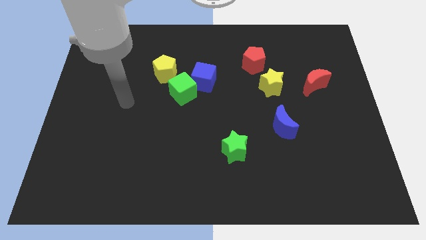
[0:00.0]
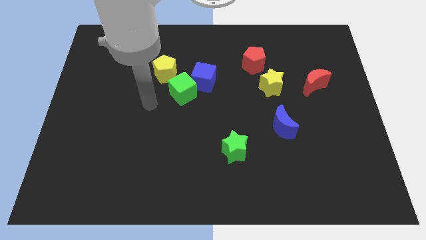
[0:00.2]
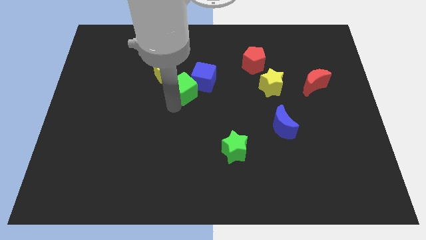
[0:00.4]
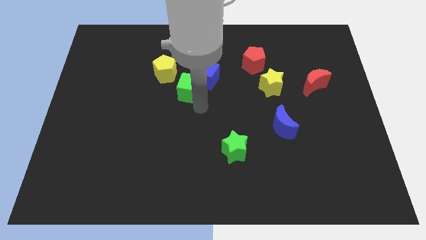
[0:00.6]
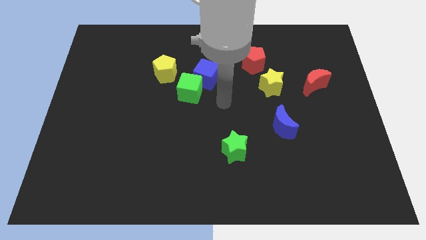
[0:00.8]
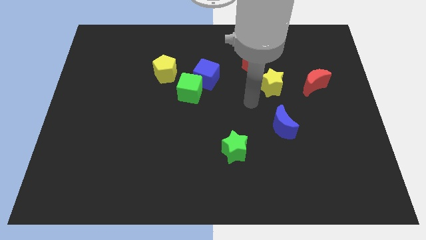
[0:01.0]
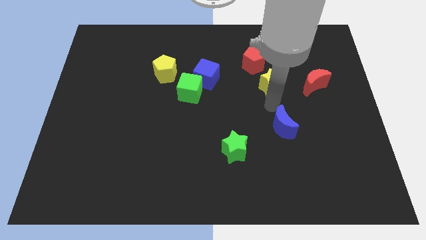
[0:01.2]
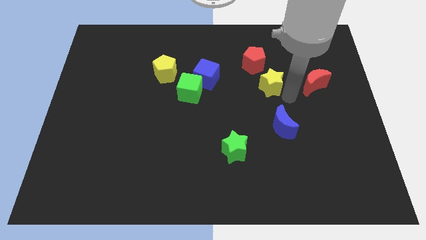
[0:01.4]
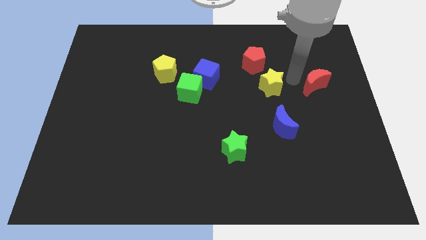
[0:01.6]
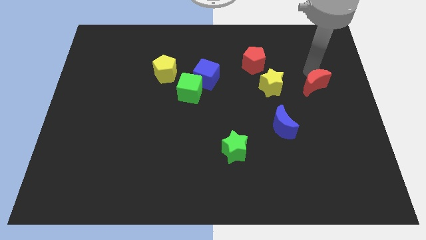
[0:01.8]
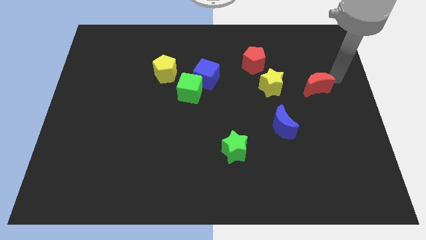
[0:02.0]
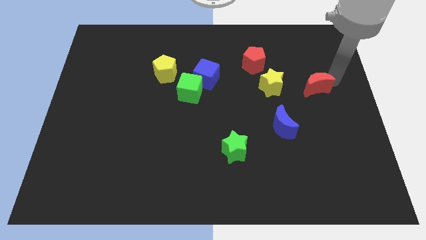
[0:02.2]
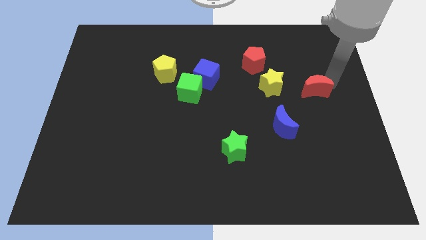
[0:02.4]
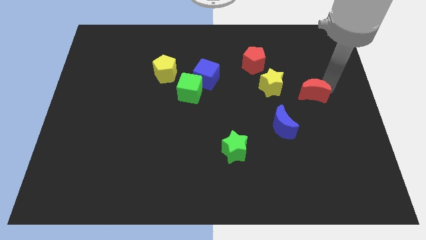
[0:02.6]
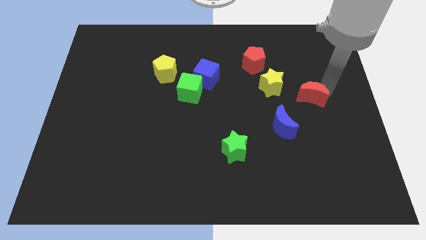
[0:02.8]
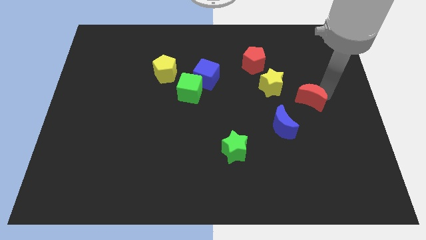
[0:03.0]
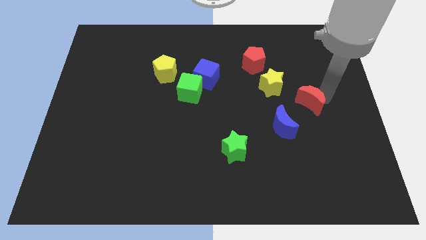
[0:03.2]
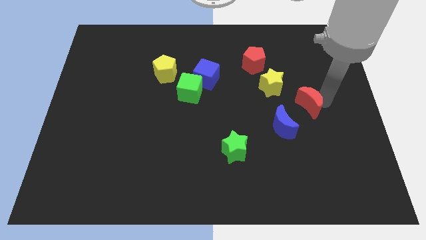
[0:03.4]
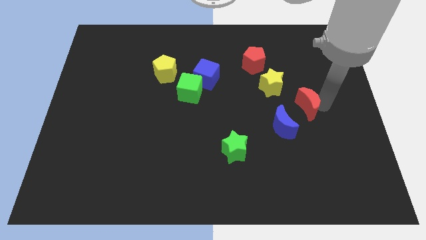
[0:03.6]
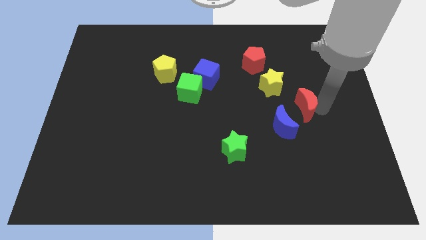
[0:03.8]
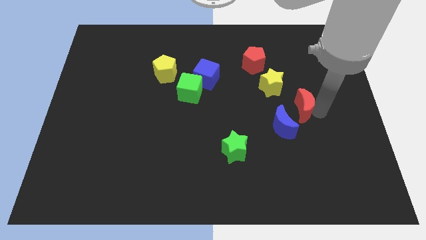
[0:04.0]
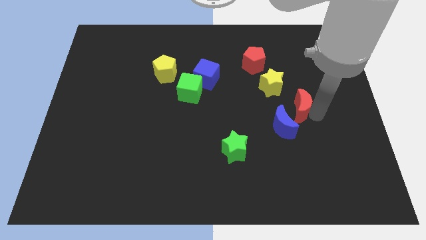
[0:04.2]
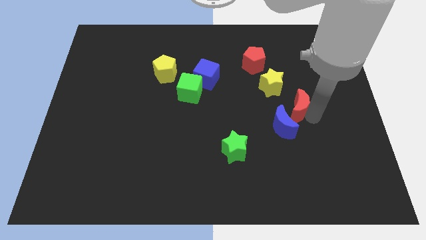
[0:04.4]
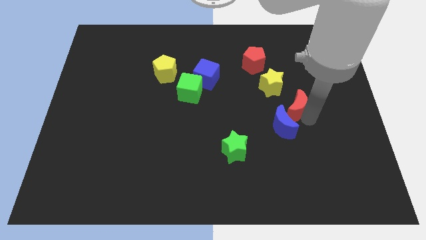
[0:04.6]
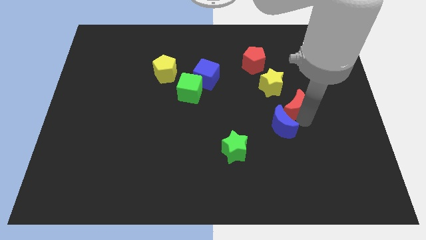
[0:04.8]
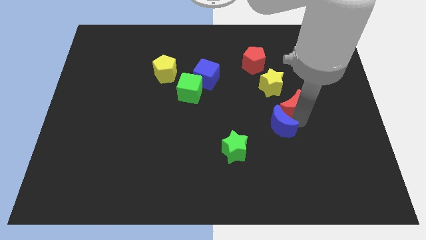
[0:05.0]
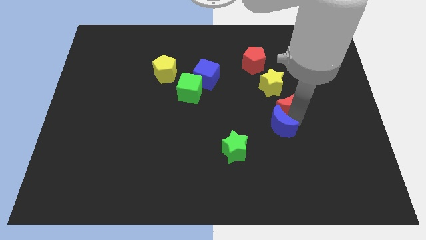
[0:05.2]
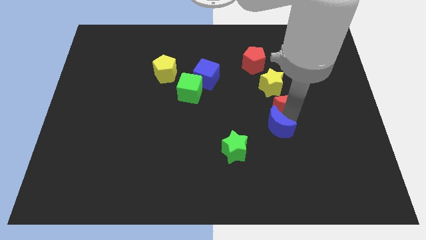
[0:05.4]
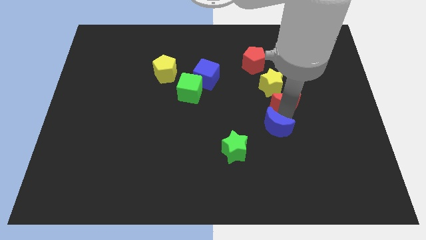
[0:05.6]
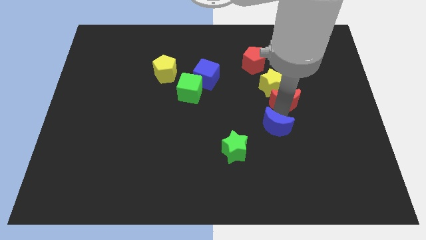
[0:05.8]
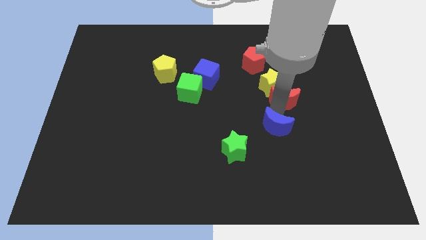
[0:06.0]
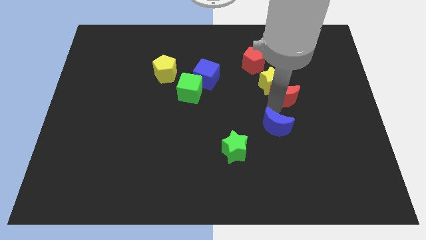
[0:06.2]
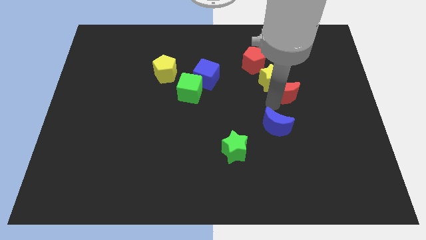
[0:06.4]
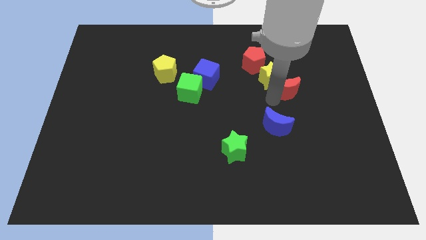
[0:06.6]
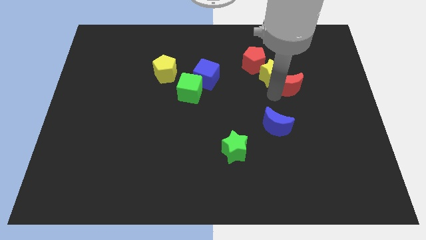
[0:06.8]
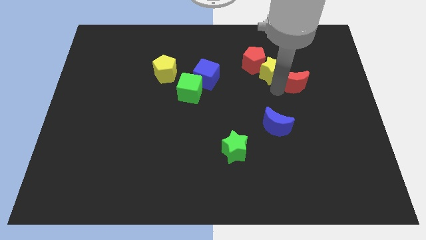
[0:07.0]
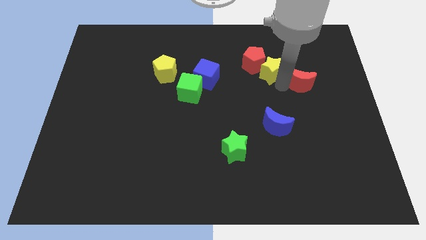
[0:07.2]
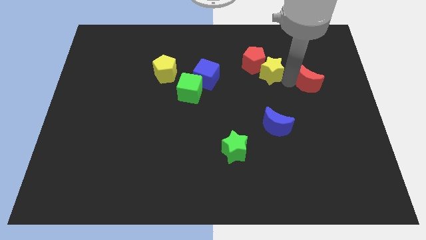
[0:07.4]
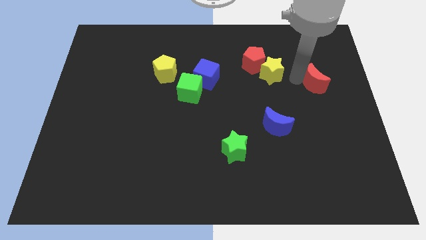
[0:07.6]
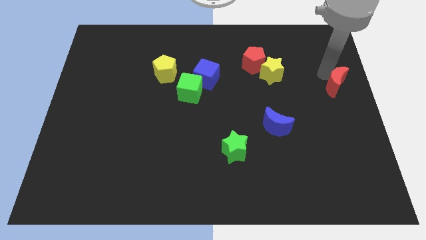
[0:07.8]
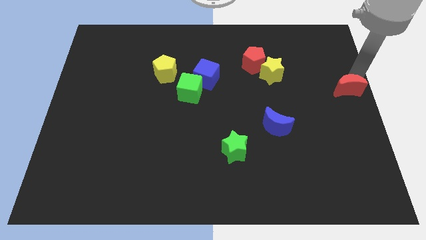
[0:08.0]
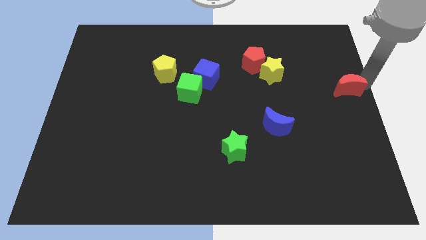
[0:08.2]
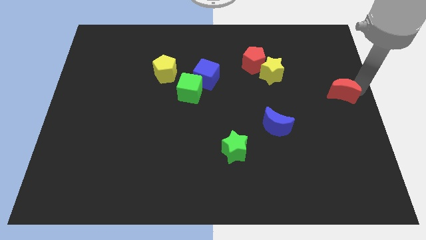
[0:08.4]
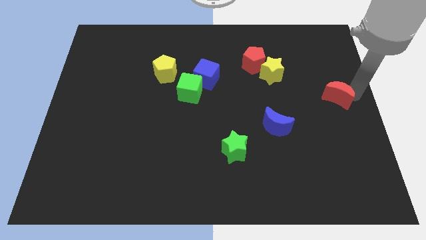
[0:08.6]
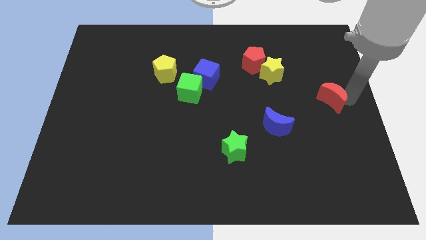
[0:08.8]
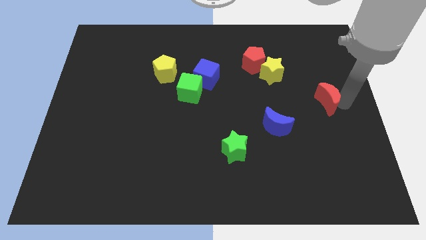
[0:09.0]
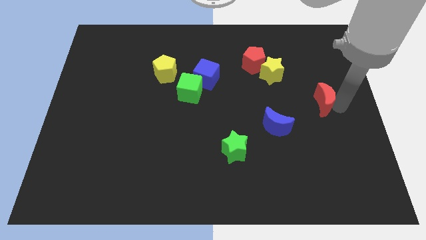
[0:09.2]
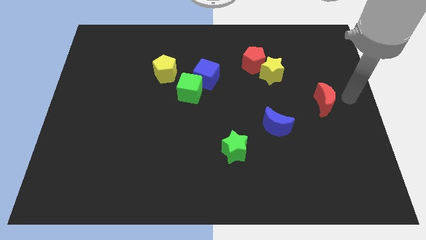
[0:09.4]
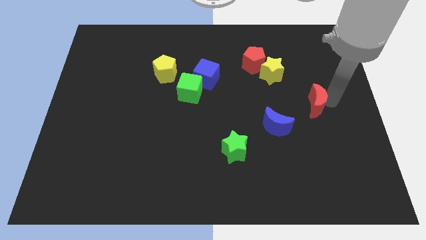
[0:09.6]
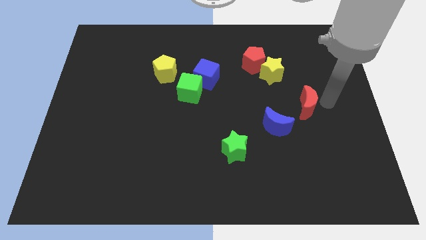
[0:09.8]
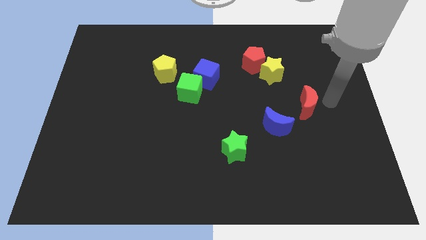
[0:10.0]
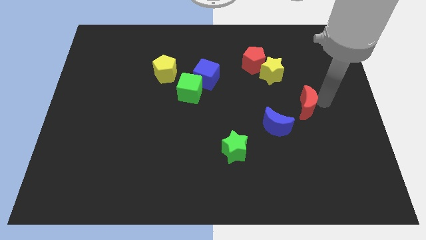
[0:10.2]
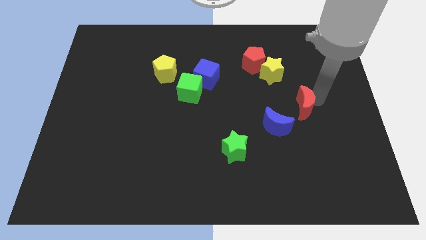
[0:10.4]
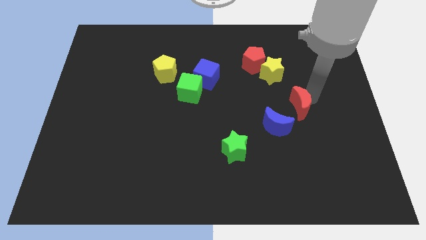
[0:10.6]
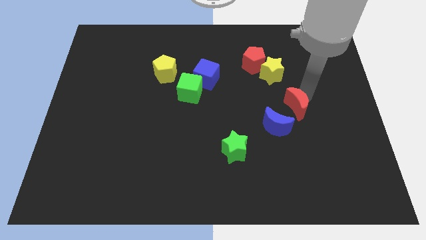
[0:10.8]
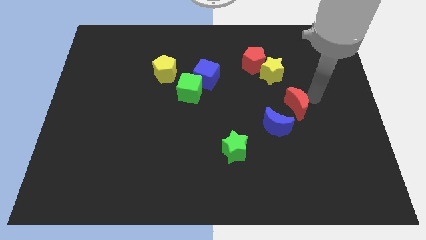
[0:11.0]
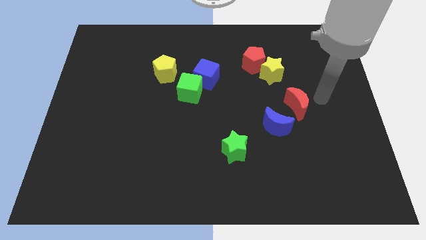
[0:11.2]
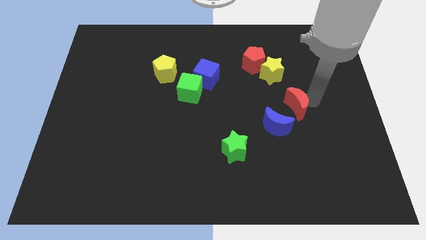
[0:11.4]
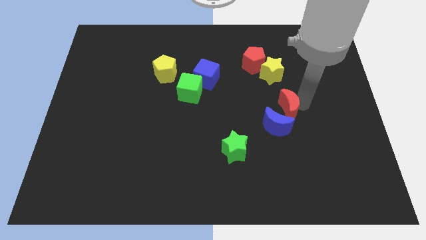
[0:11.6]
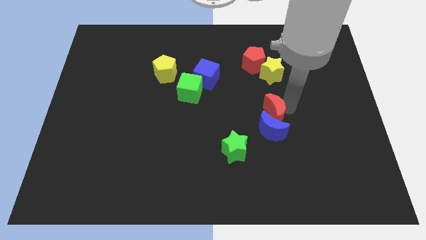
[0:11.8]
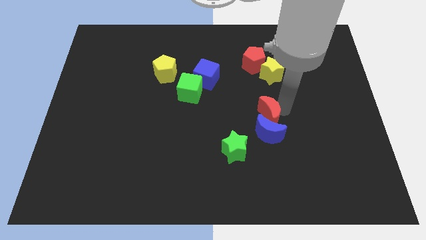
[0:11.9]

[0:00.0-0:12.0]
move the red moon to the top right of the green star

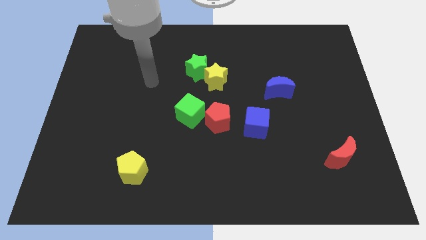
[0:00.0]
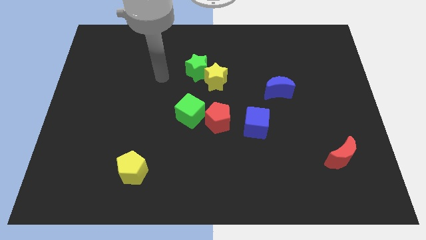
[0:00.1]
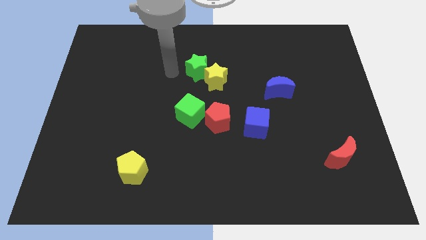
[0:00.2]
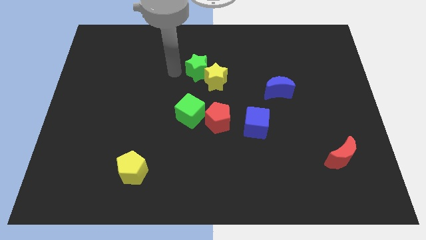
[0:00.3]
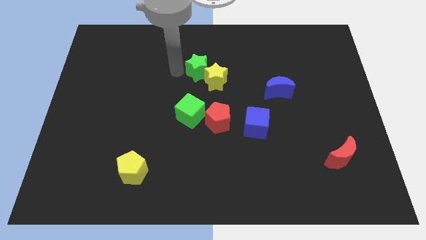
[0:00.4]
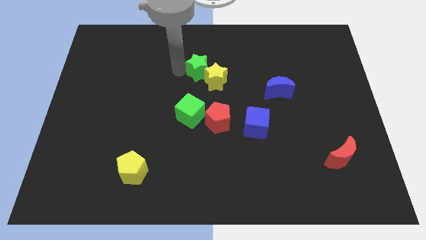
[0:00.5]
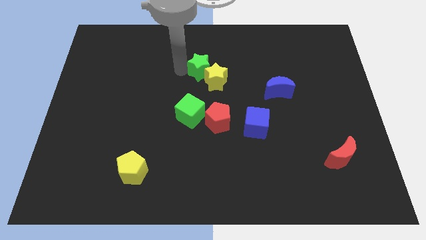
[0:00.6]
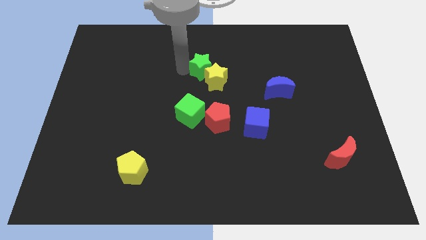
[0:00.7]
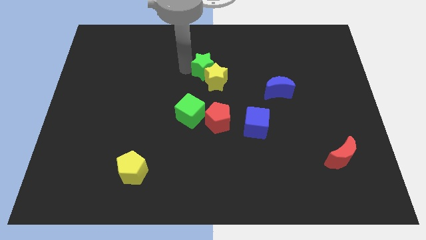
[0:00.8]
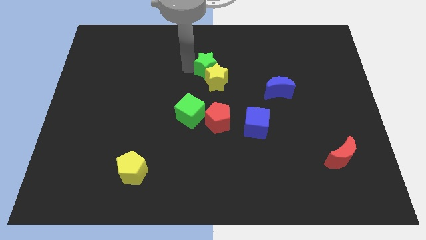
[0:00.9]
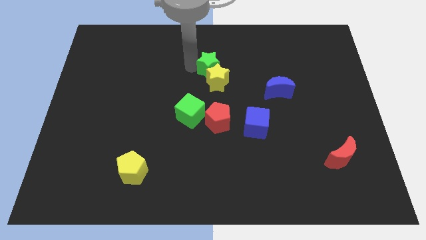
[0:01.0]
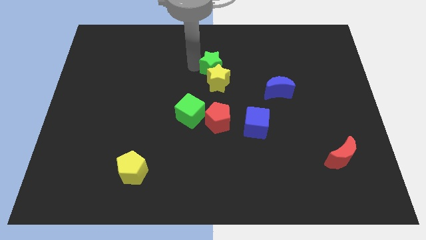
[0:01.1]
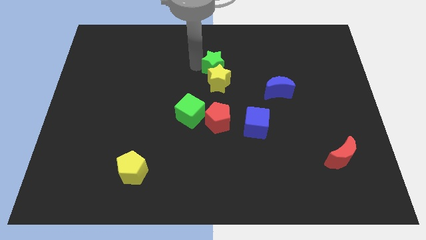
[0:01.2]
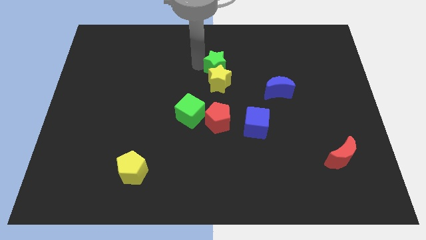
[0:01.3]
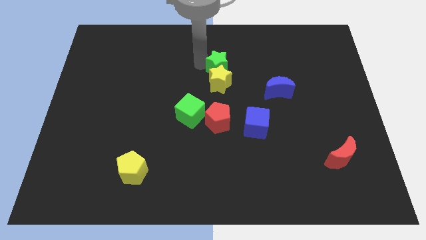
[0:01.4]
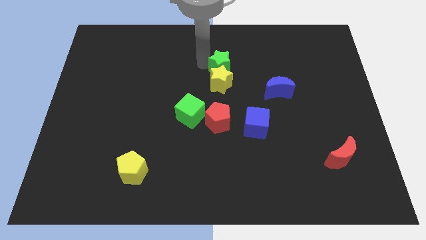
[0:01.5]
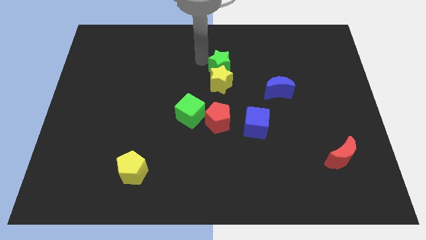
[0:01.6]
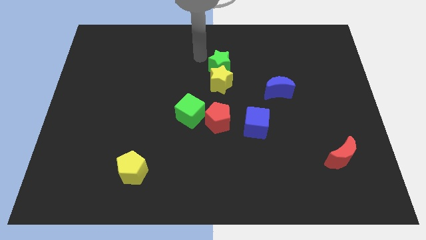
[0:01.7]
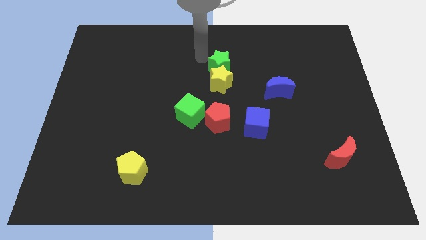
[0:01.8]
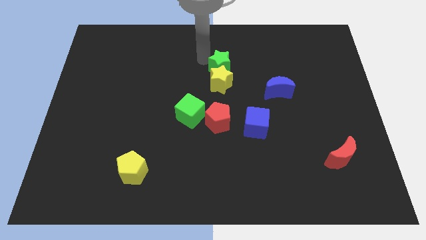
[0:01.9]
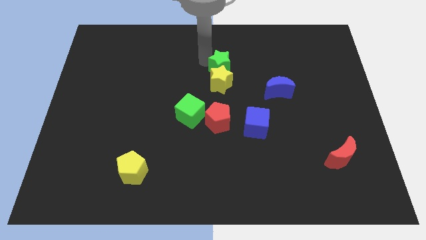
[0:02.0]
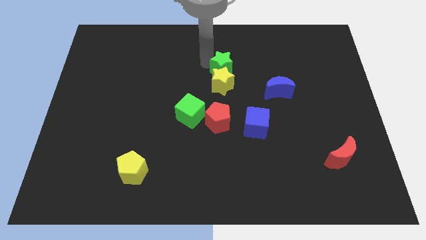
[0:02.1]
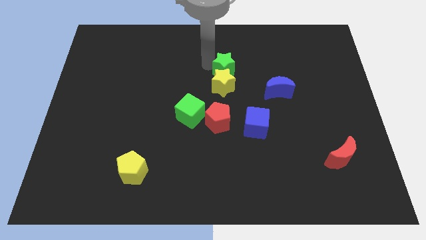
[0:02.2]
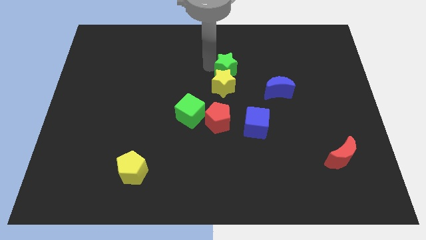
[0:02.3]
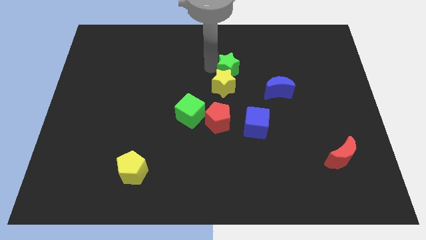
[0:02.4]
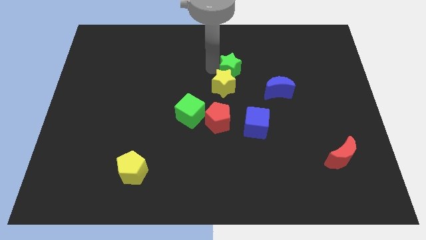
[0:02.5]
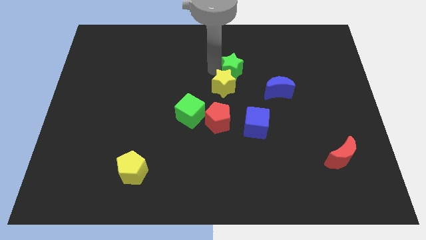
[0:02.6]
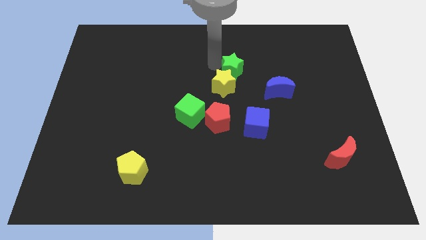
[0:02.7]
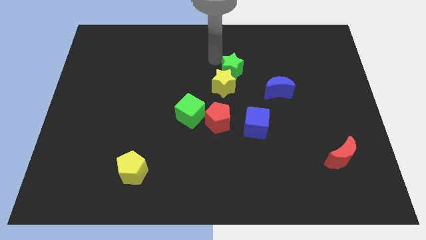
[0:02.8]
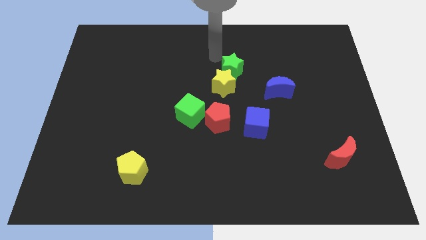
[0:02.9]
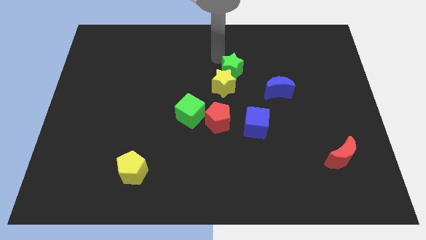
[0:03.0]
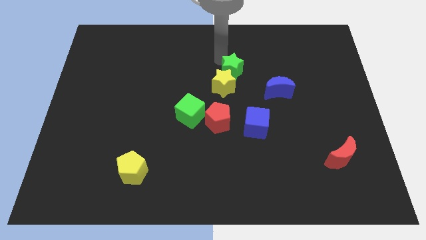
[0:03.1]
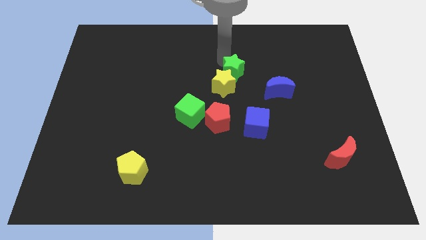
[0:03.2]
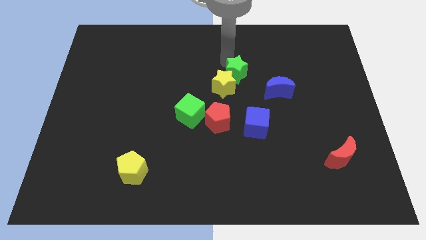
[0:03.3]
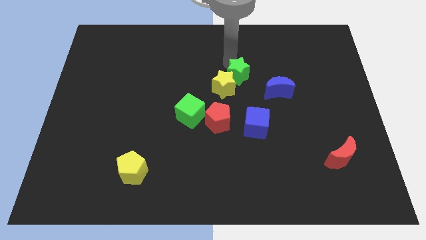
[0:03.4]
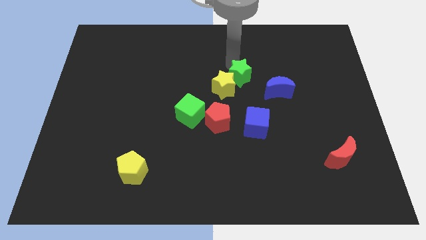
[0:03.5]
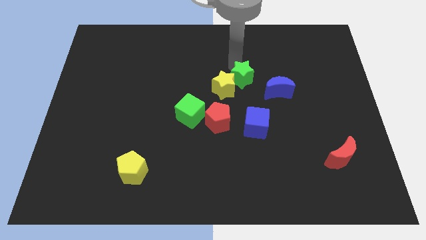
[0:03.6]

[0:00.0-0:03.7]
slide the green star to the top side of the blue cube
